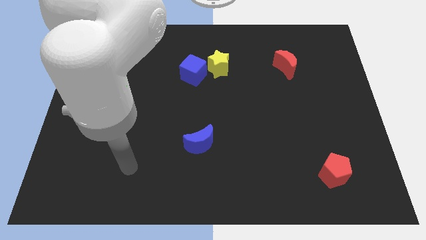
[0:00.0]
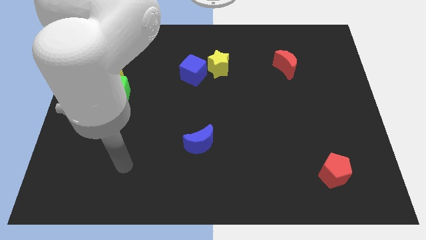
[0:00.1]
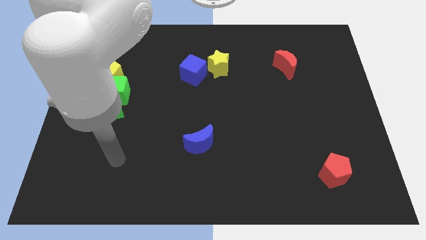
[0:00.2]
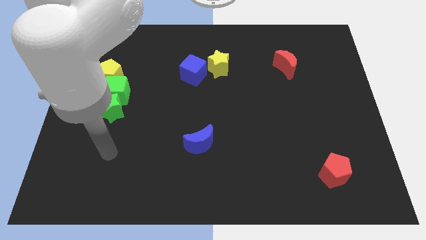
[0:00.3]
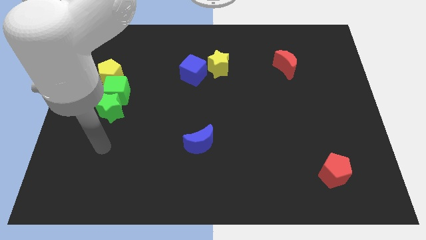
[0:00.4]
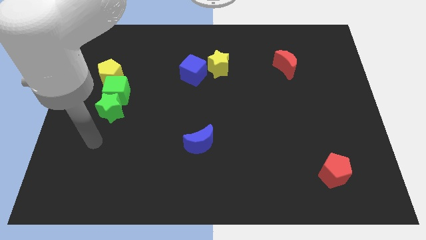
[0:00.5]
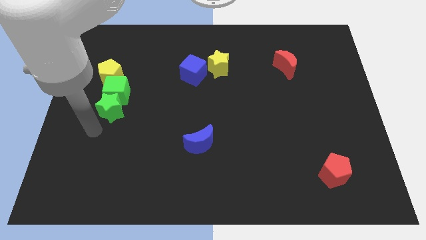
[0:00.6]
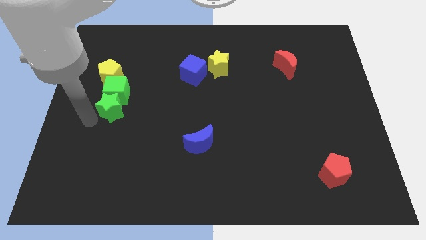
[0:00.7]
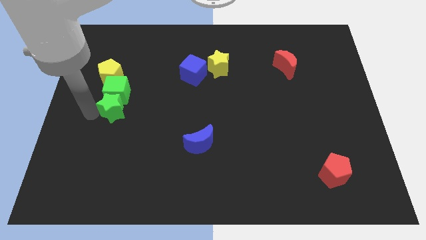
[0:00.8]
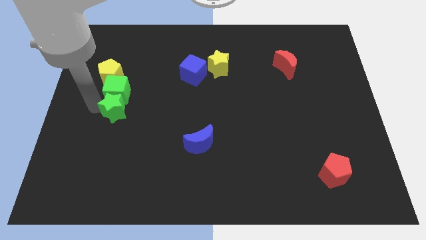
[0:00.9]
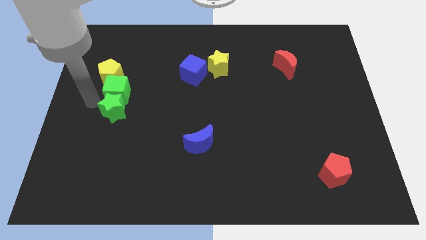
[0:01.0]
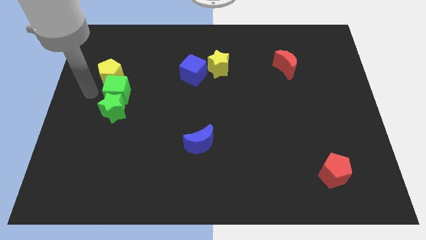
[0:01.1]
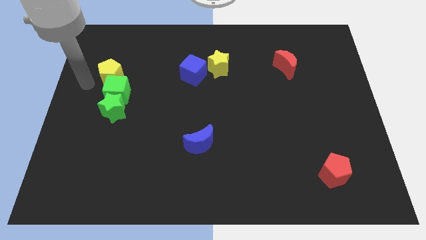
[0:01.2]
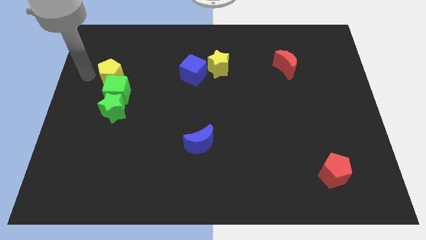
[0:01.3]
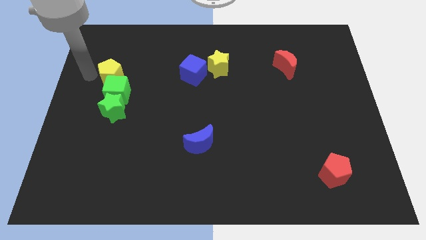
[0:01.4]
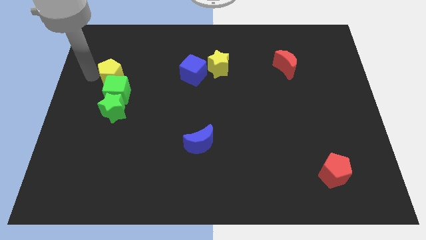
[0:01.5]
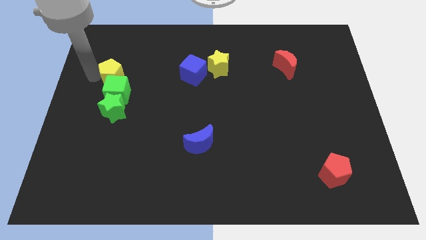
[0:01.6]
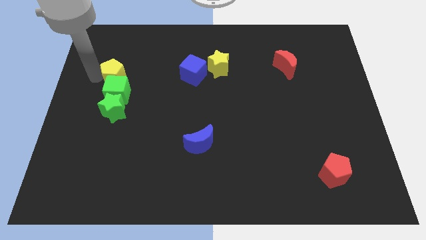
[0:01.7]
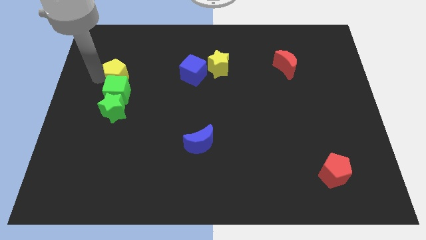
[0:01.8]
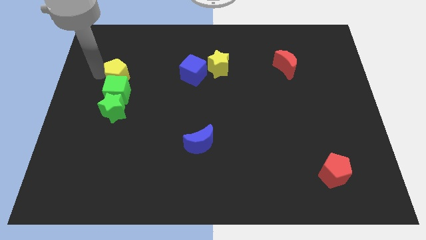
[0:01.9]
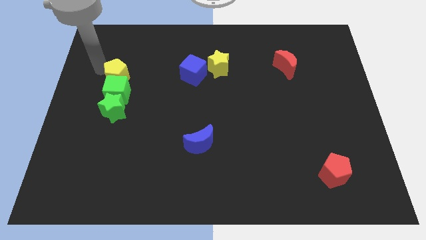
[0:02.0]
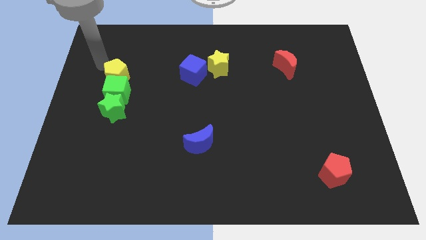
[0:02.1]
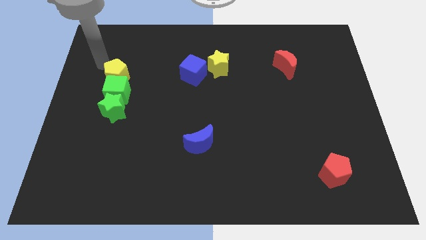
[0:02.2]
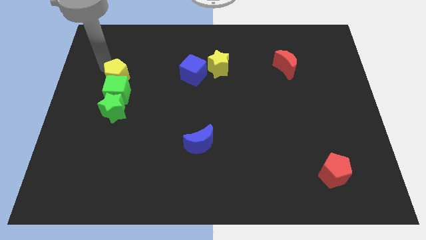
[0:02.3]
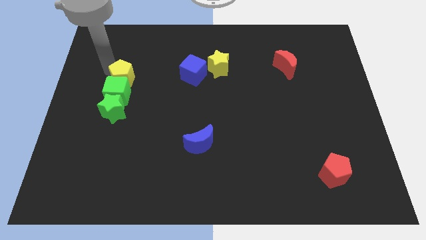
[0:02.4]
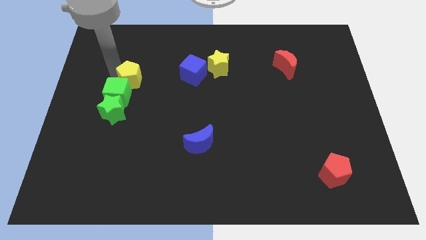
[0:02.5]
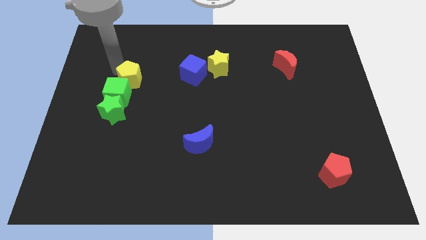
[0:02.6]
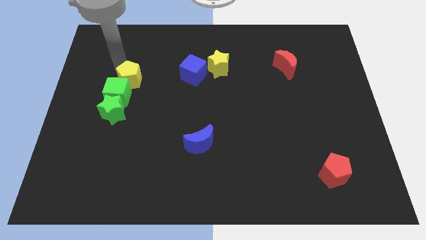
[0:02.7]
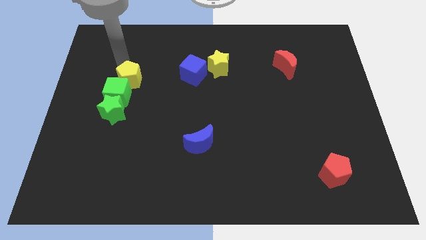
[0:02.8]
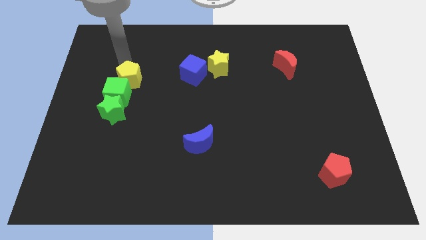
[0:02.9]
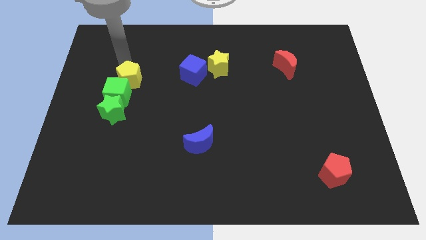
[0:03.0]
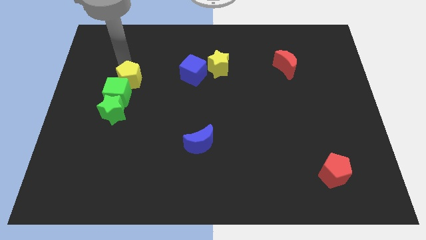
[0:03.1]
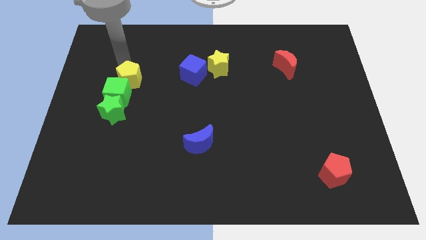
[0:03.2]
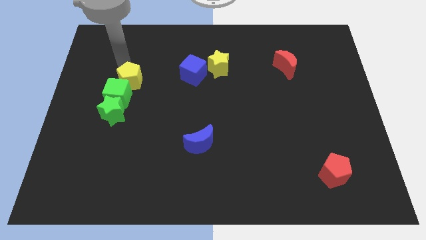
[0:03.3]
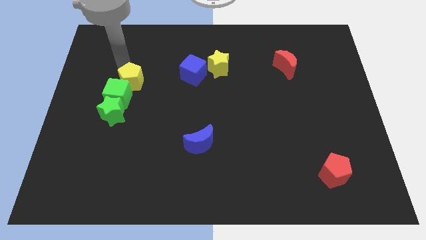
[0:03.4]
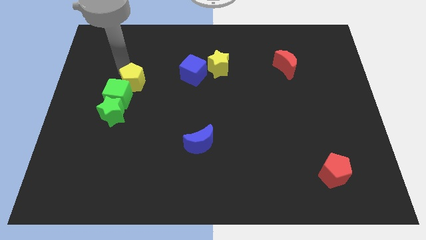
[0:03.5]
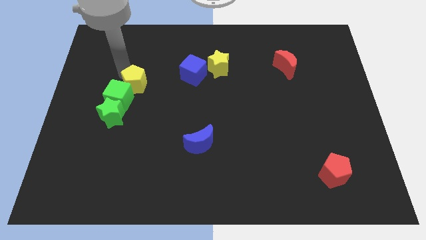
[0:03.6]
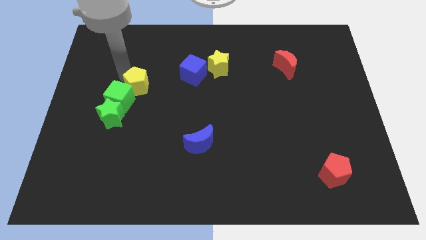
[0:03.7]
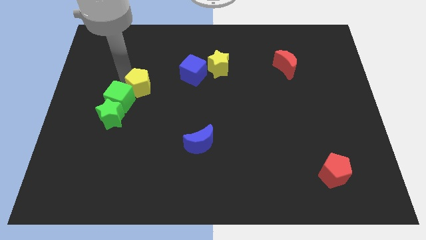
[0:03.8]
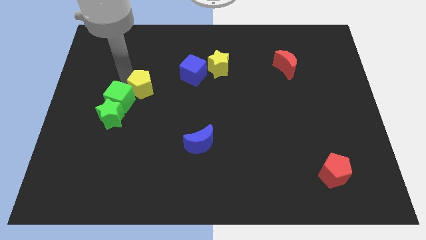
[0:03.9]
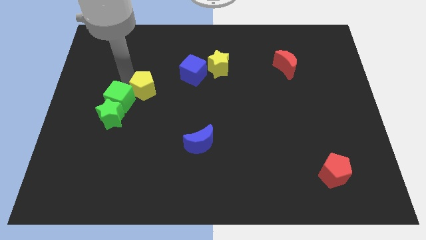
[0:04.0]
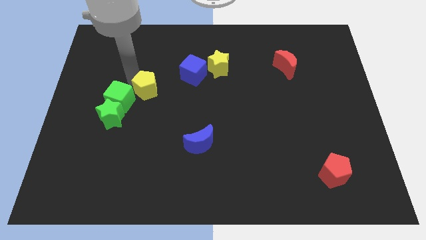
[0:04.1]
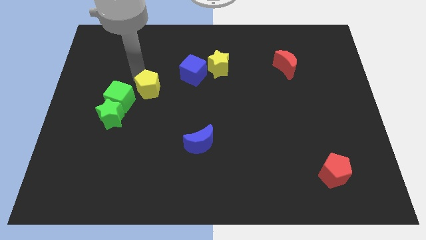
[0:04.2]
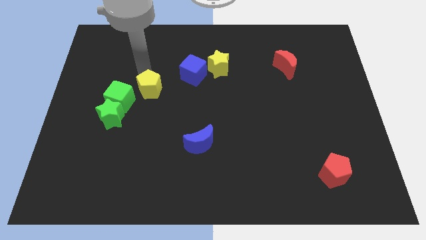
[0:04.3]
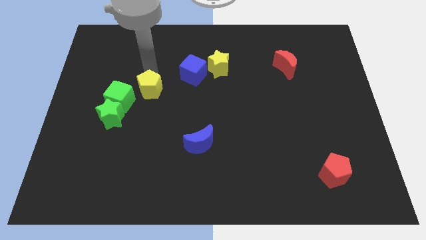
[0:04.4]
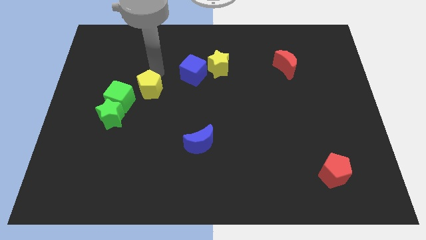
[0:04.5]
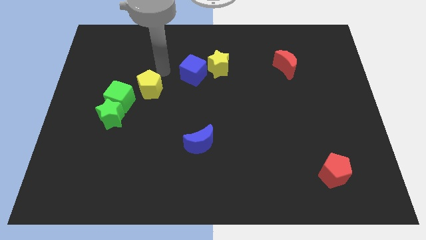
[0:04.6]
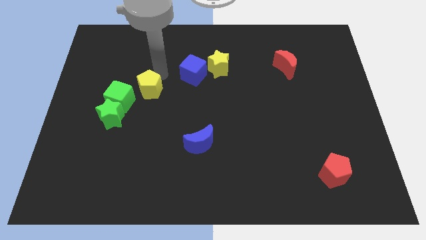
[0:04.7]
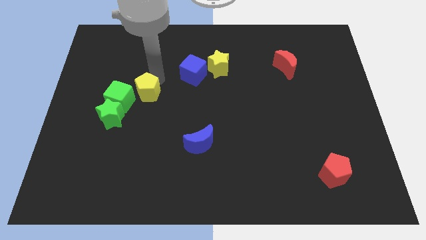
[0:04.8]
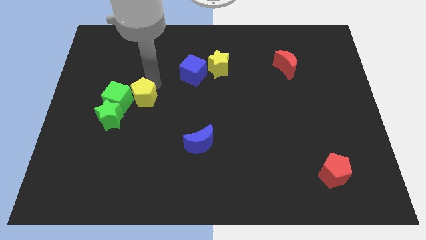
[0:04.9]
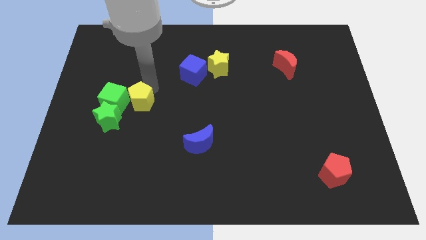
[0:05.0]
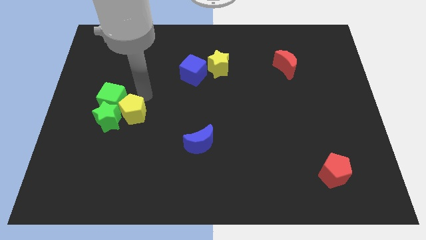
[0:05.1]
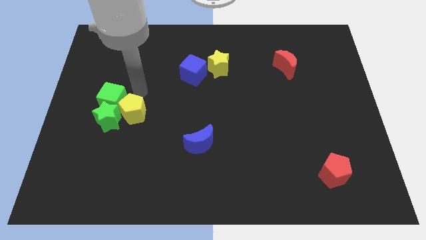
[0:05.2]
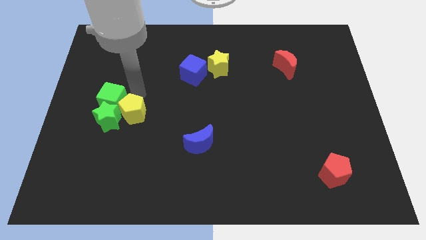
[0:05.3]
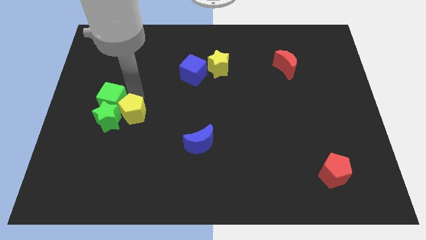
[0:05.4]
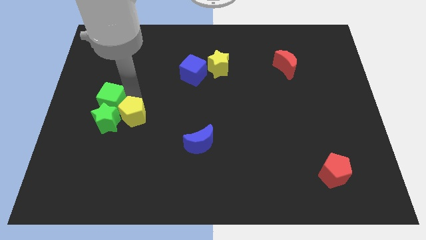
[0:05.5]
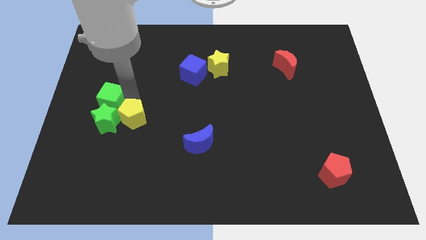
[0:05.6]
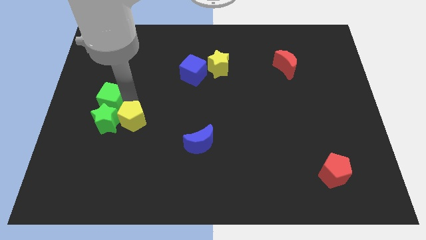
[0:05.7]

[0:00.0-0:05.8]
slide the yellow pentagon to the bottom right side of the green star

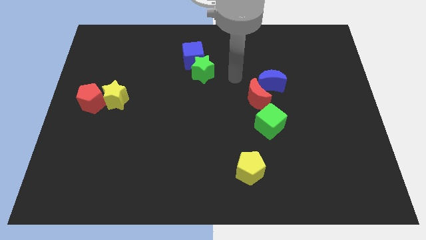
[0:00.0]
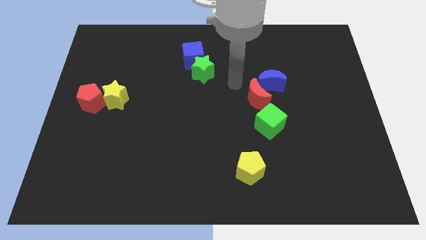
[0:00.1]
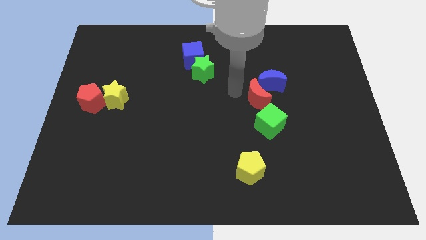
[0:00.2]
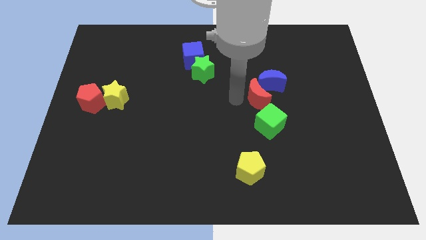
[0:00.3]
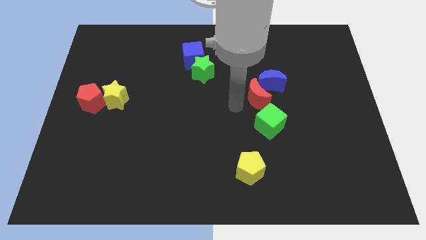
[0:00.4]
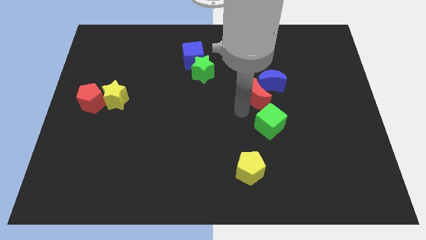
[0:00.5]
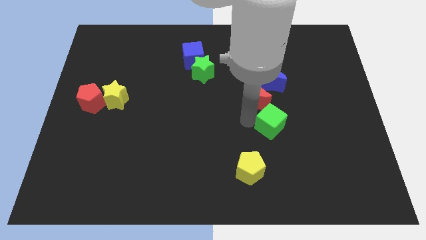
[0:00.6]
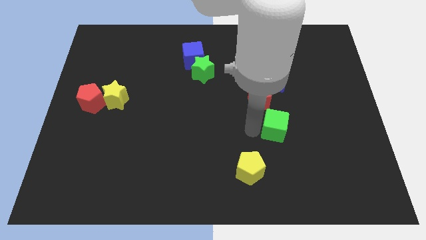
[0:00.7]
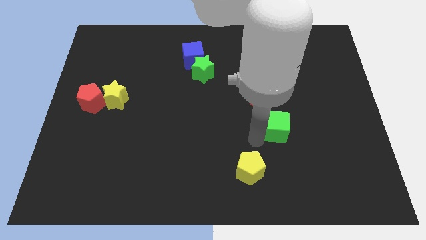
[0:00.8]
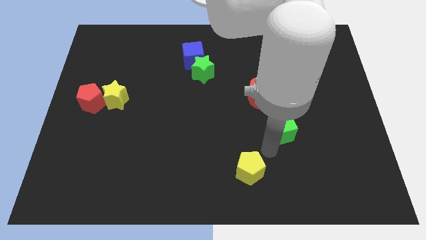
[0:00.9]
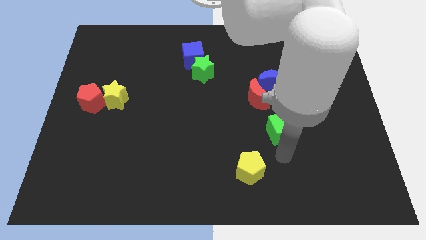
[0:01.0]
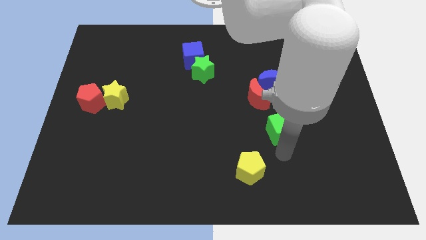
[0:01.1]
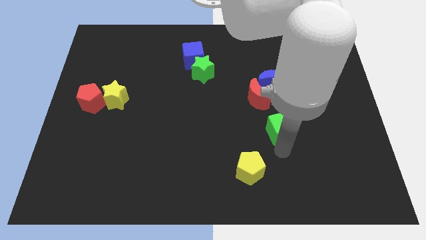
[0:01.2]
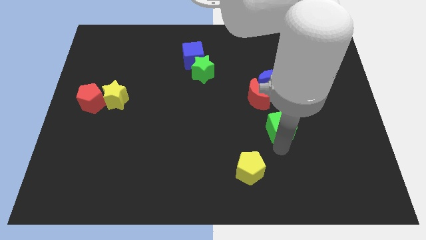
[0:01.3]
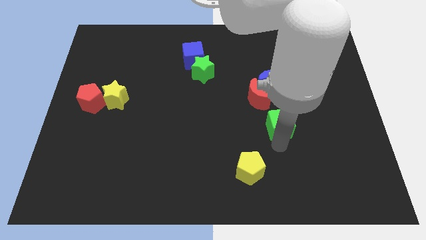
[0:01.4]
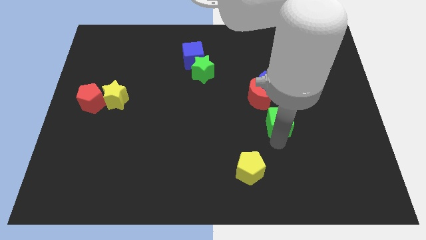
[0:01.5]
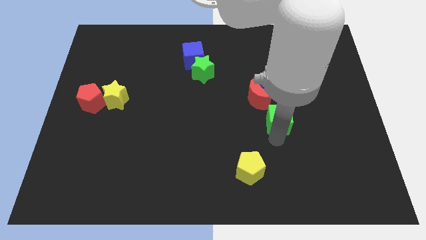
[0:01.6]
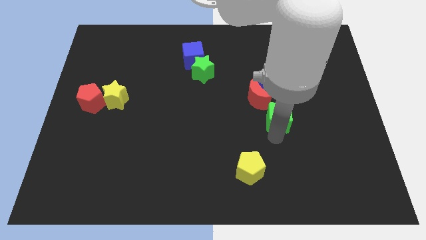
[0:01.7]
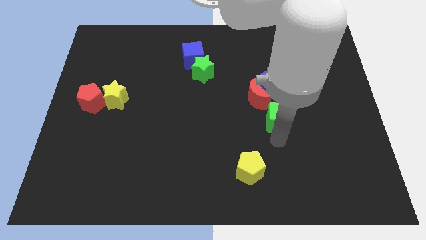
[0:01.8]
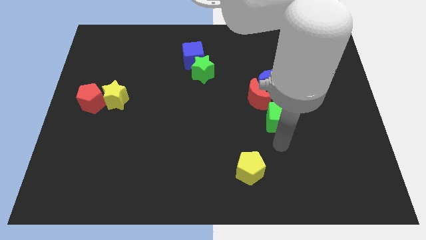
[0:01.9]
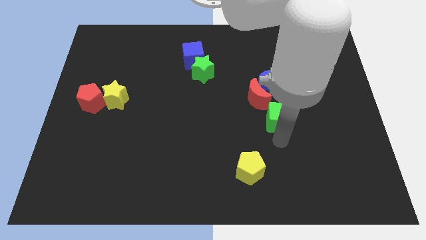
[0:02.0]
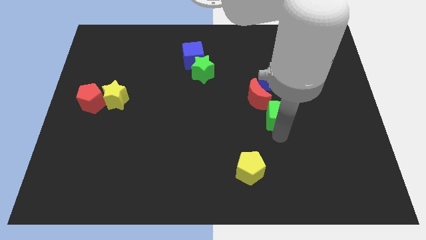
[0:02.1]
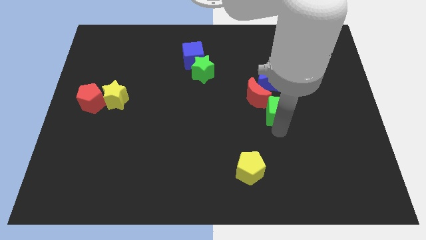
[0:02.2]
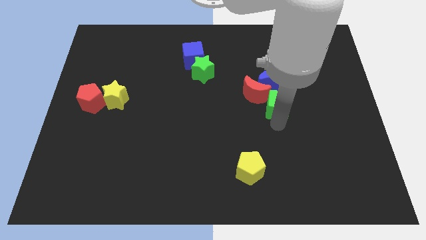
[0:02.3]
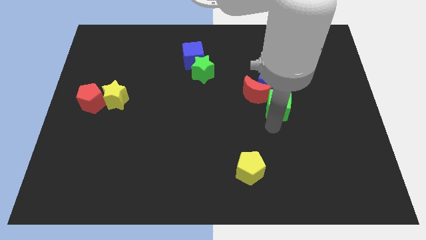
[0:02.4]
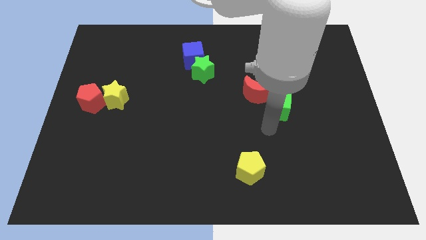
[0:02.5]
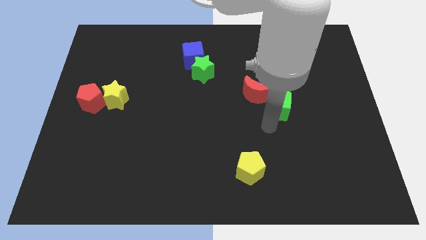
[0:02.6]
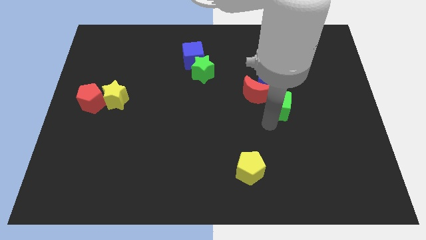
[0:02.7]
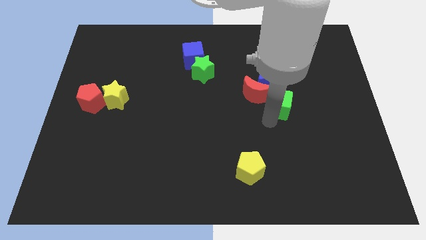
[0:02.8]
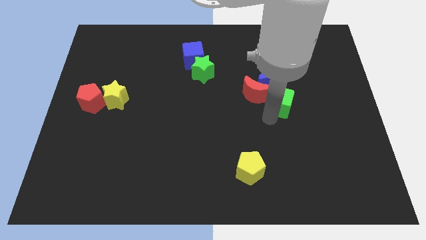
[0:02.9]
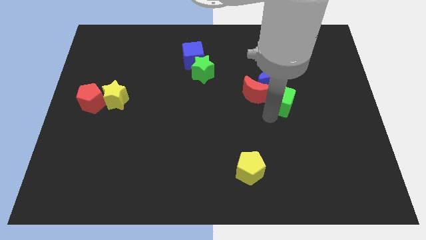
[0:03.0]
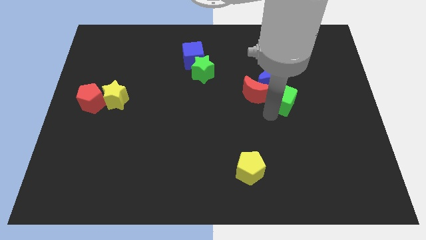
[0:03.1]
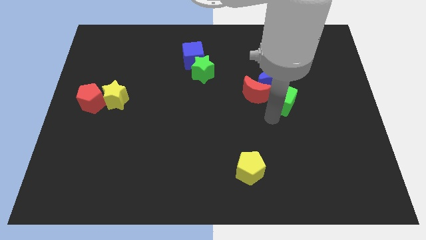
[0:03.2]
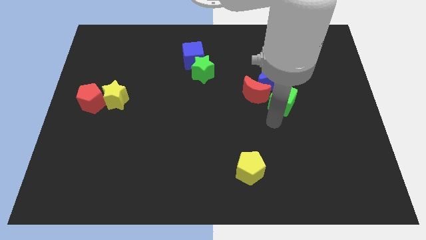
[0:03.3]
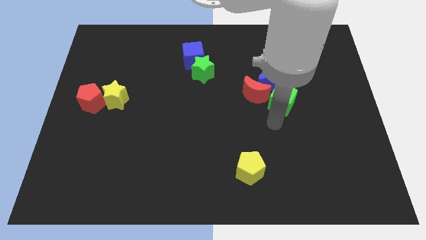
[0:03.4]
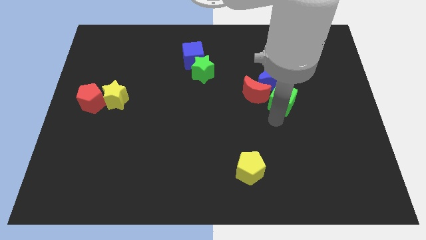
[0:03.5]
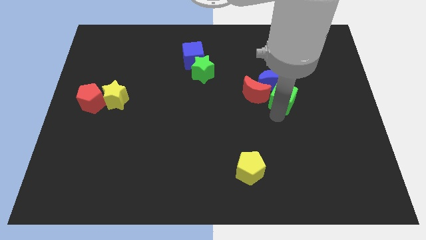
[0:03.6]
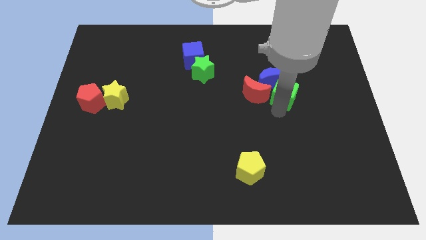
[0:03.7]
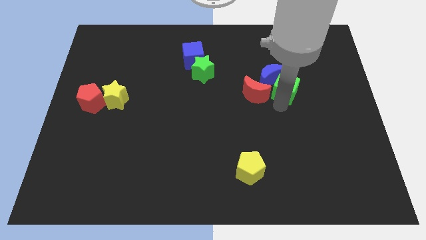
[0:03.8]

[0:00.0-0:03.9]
put the green cube to the top right side of the red moon
